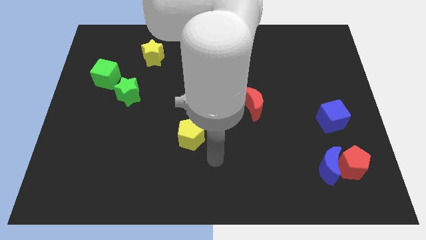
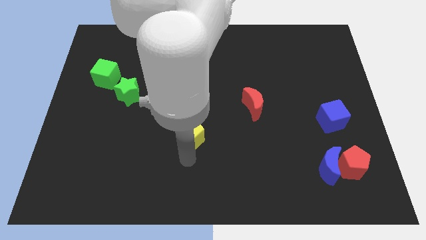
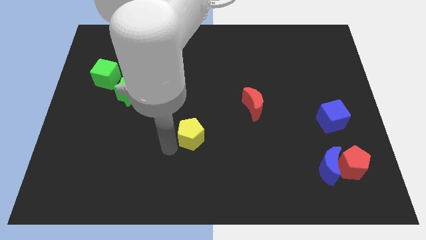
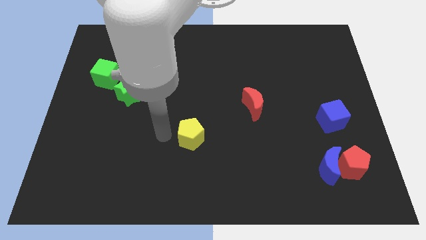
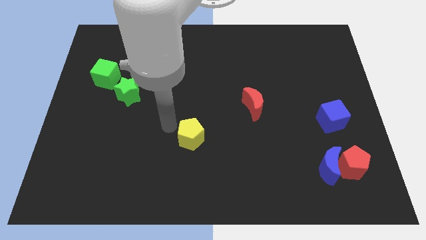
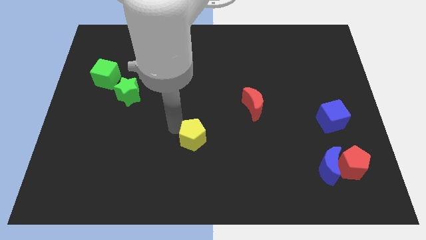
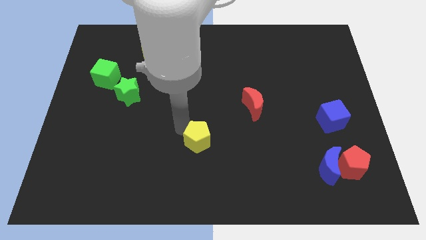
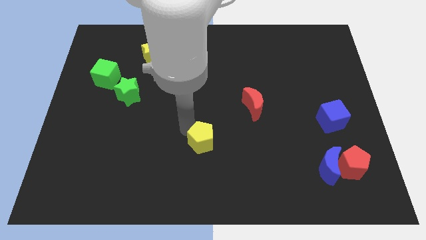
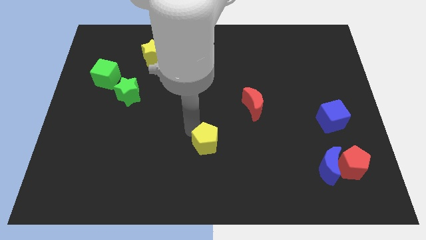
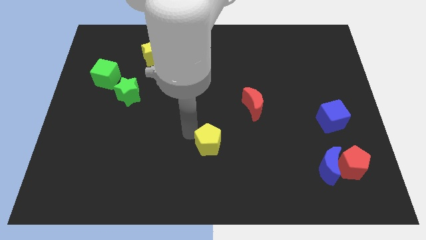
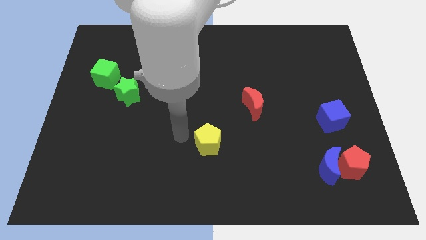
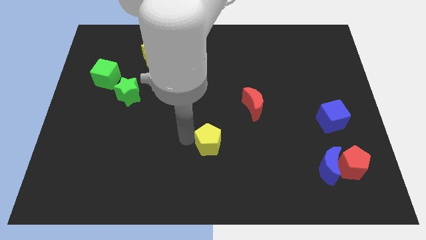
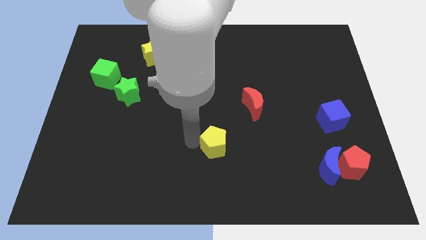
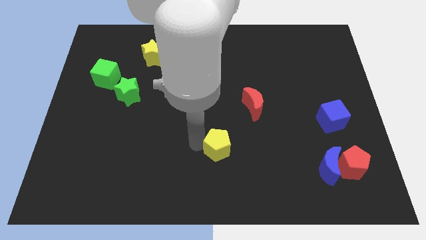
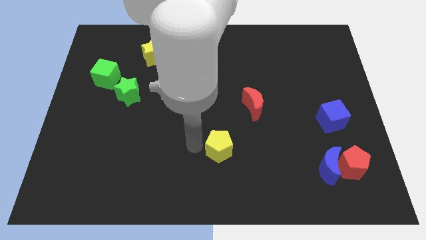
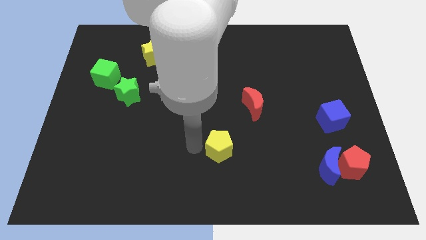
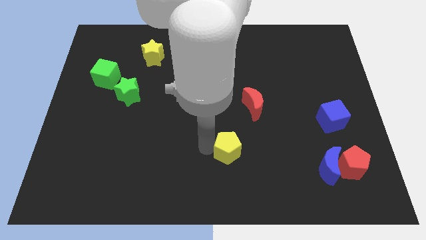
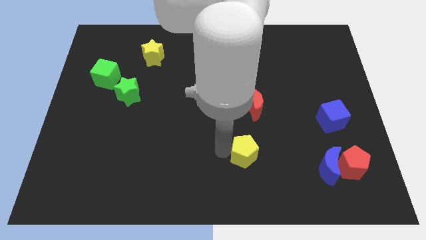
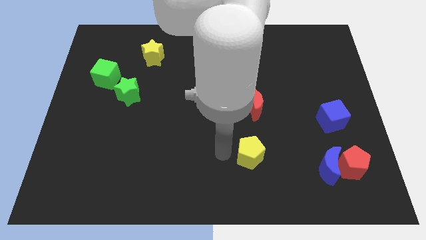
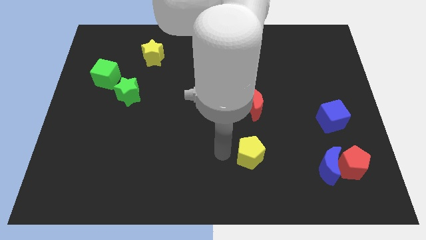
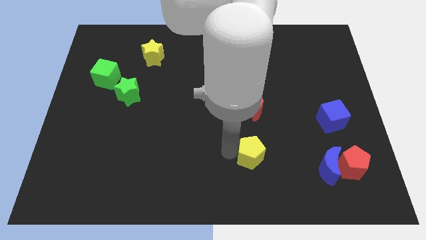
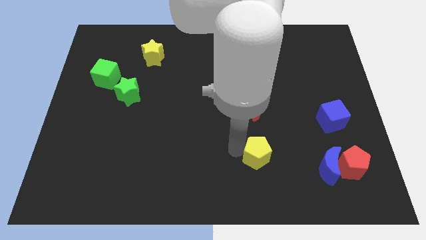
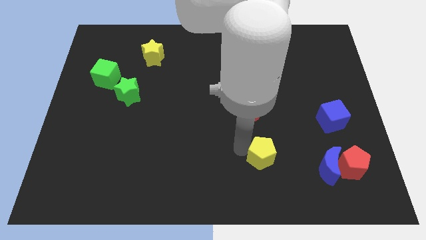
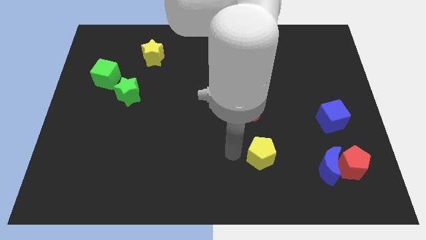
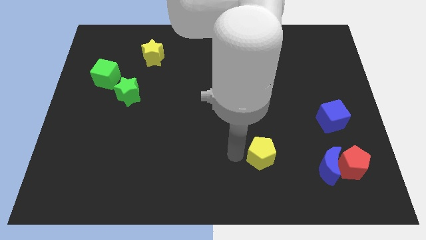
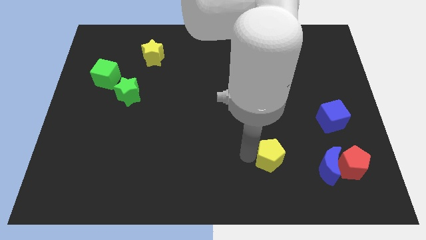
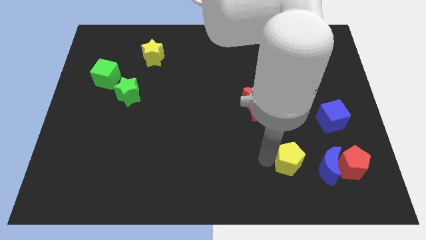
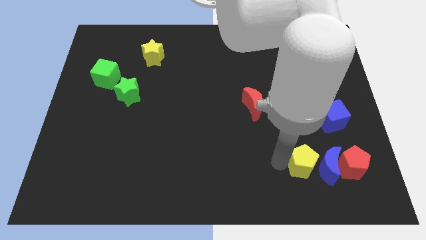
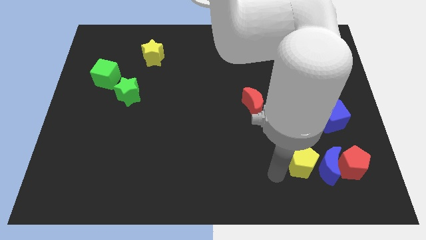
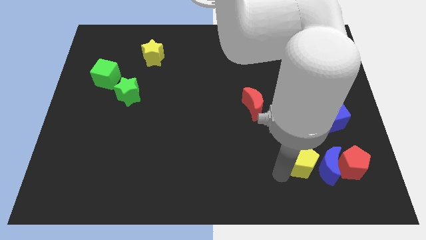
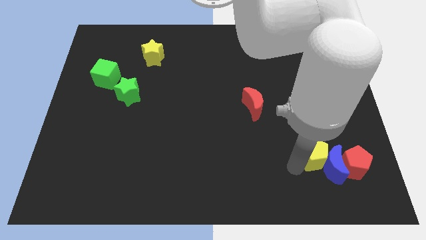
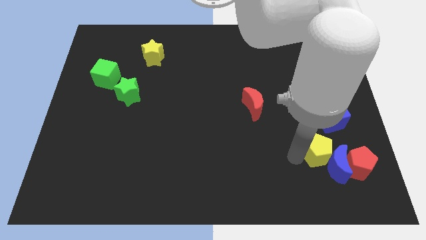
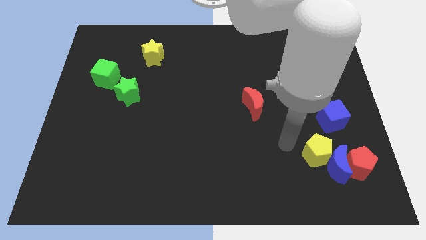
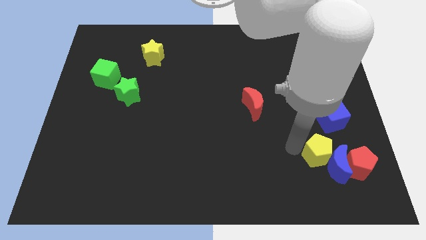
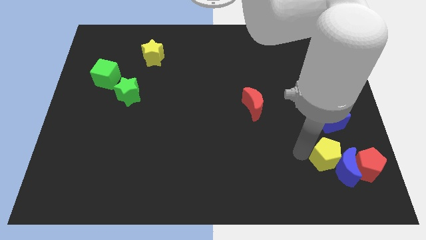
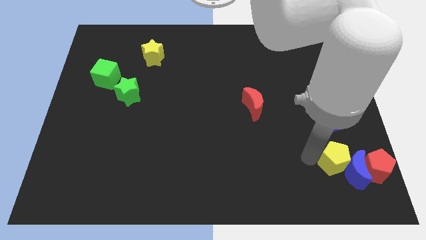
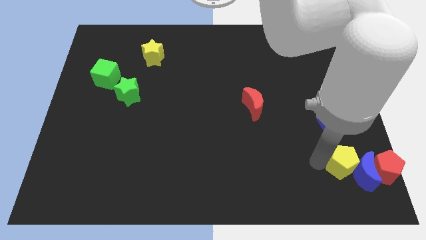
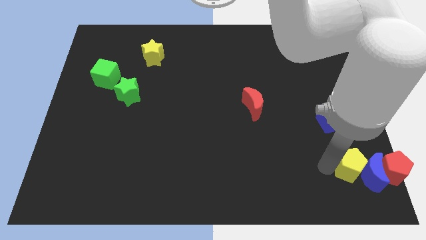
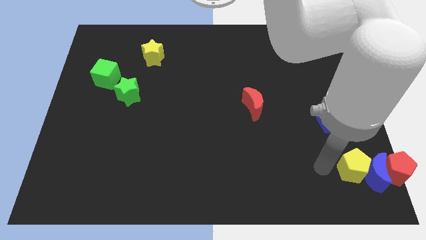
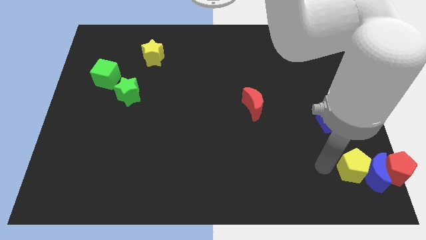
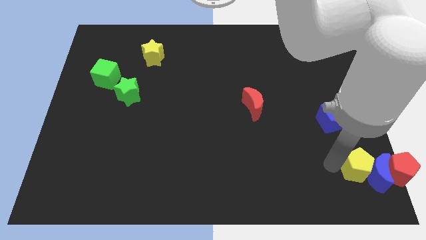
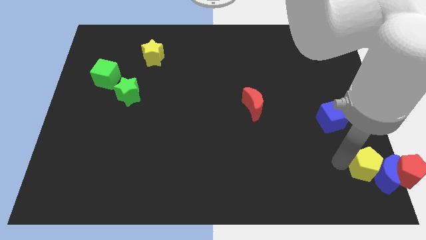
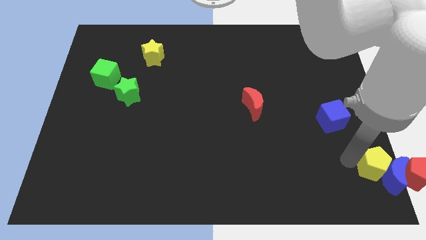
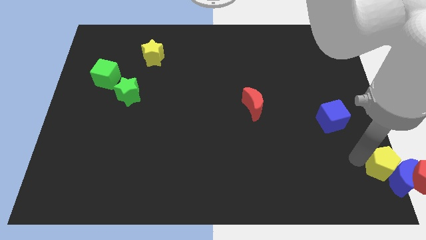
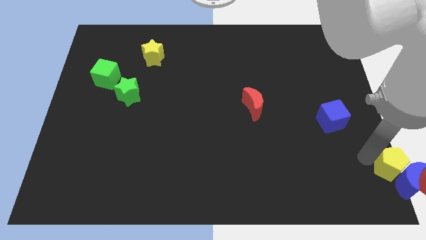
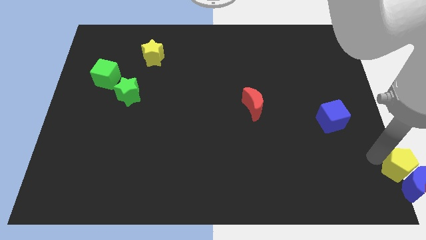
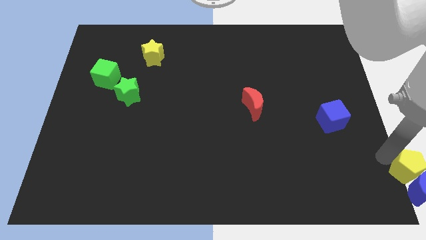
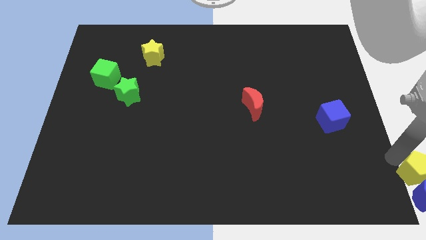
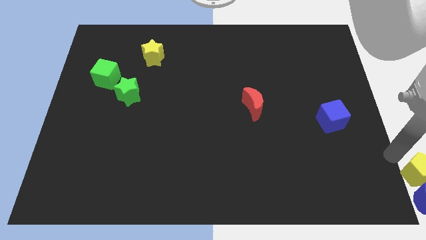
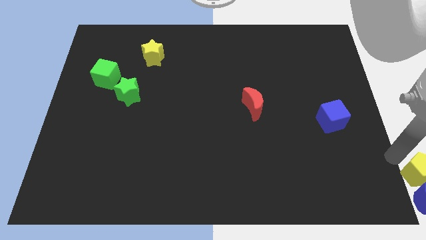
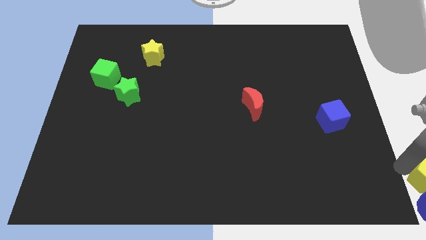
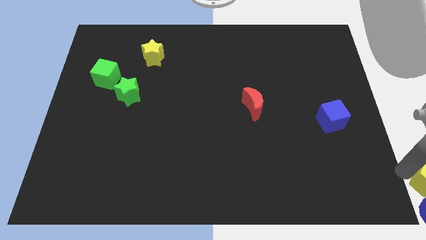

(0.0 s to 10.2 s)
slide the yellow pentagon next to the red pentagon

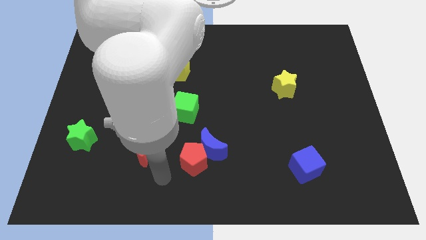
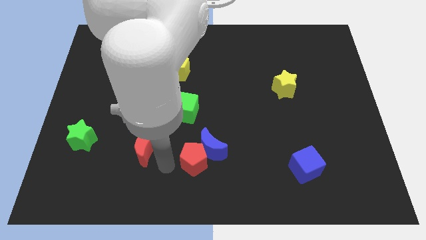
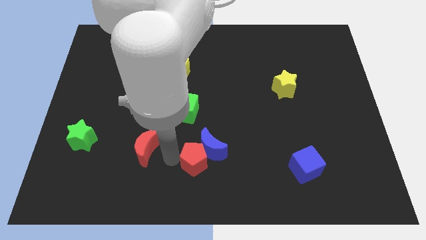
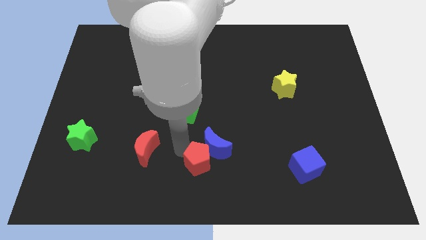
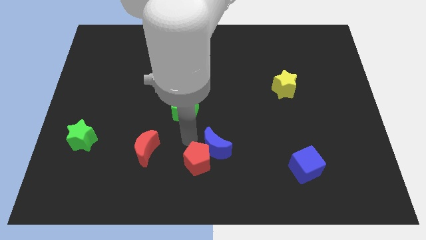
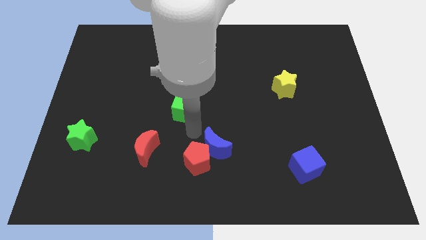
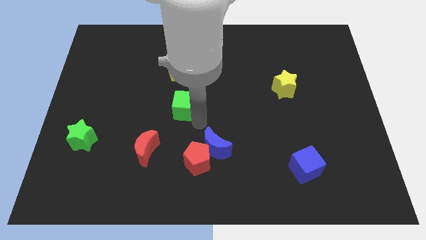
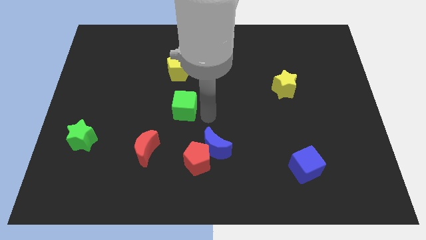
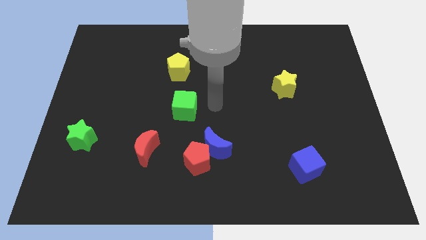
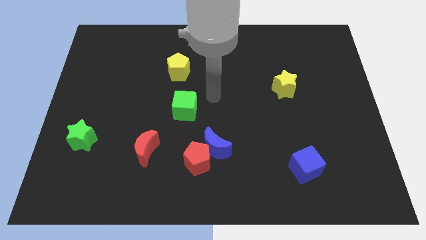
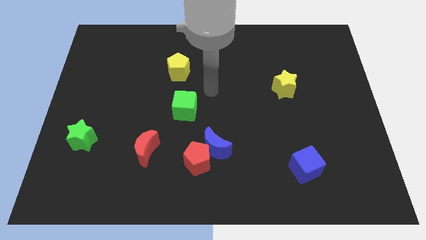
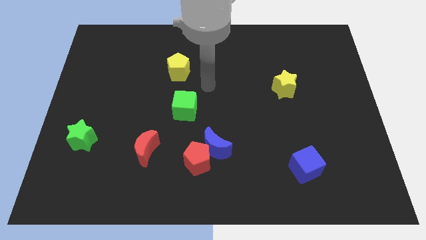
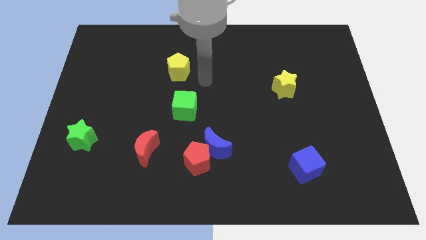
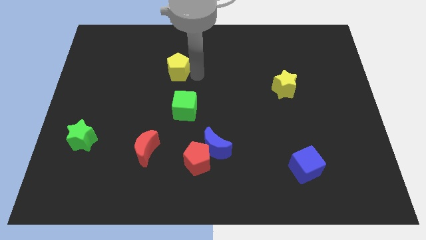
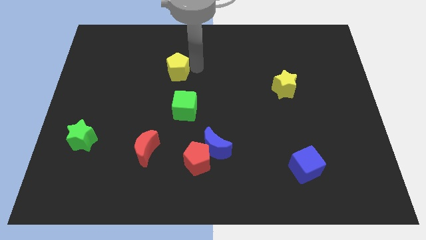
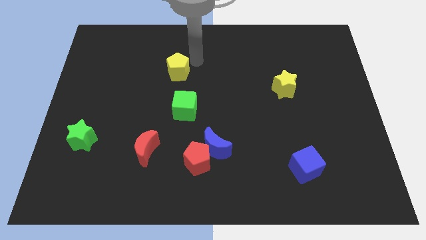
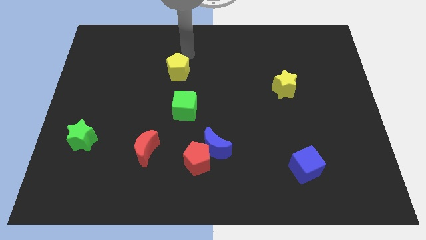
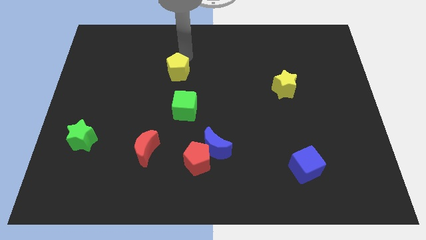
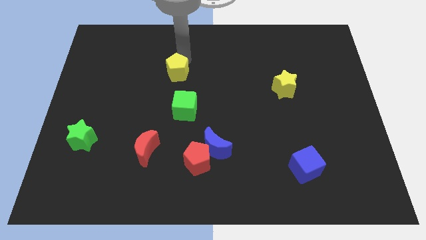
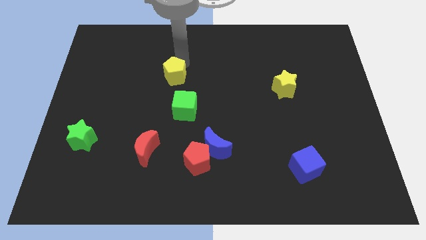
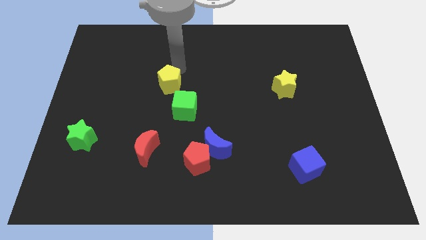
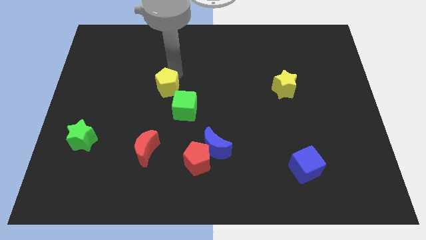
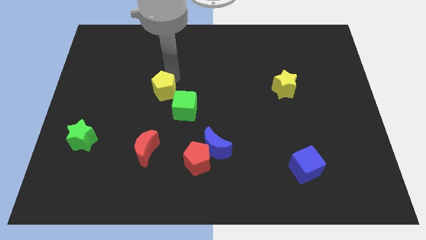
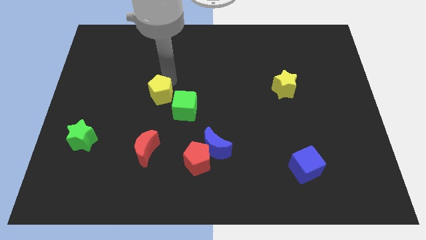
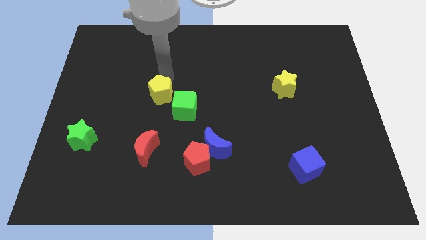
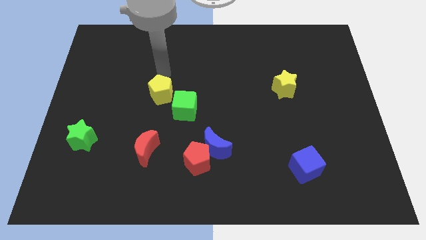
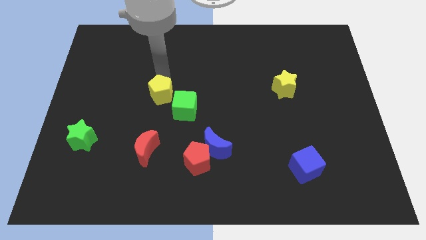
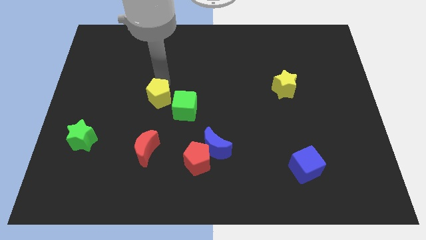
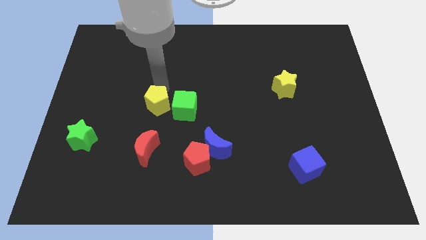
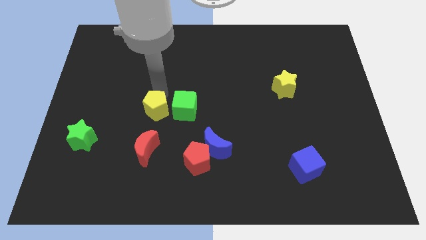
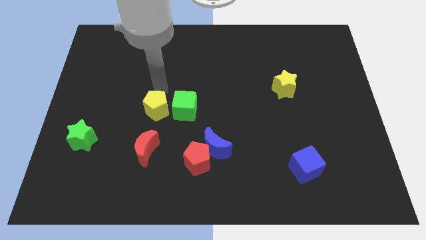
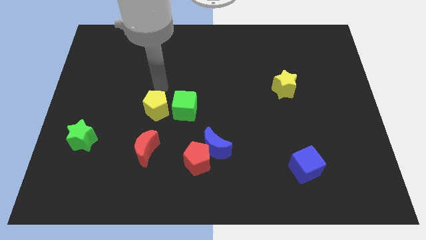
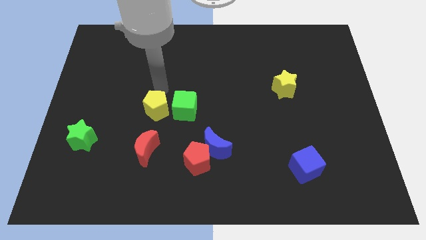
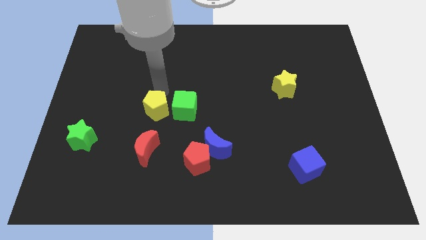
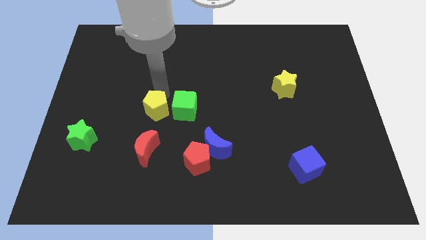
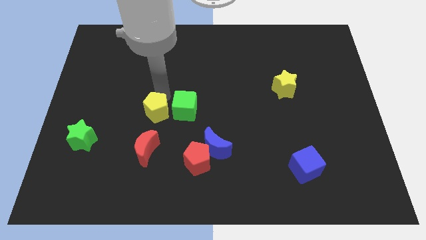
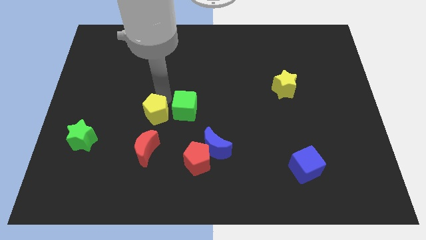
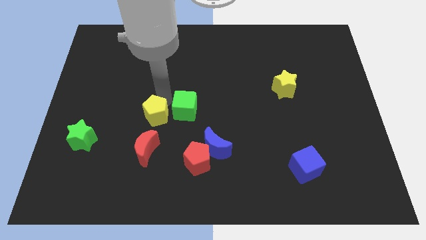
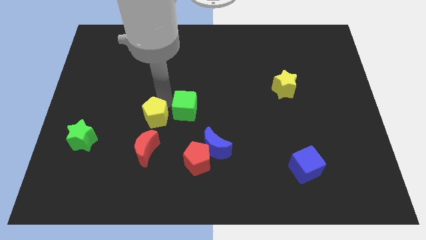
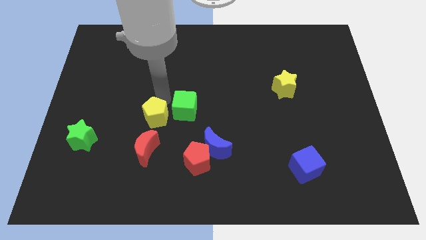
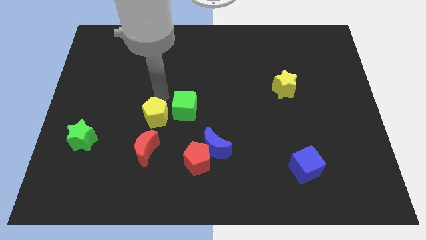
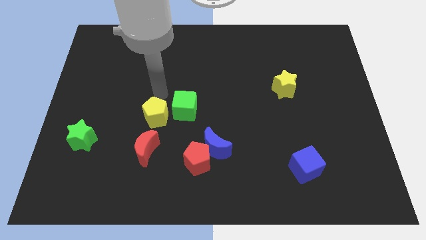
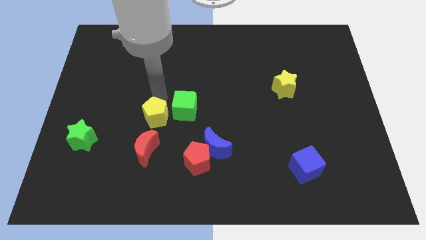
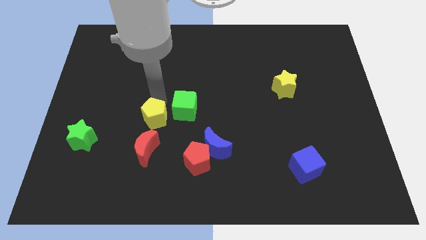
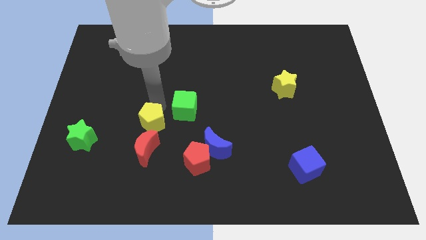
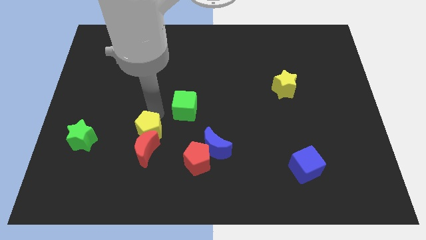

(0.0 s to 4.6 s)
slide the yellow pentagon to the red moon
